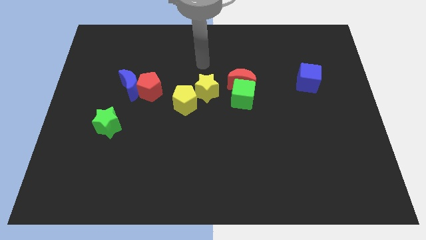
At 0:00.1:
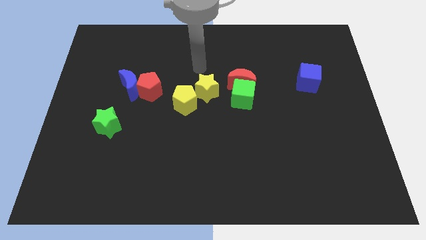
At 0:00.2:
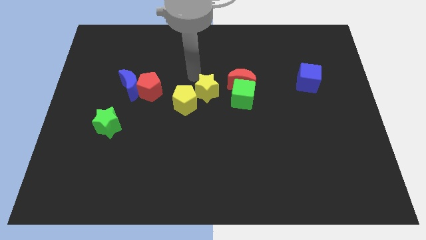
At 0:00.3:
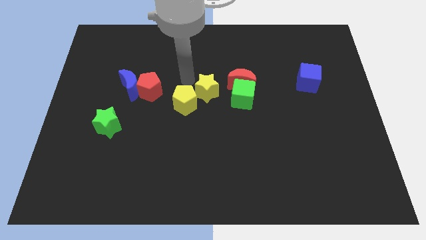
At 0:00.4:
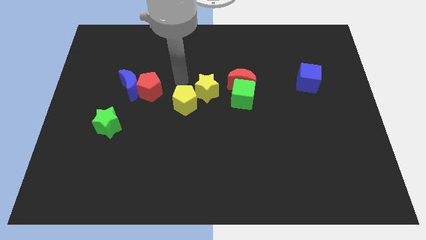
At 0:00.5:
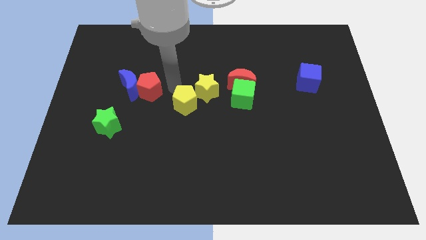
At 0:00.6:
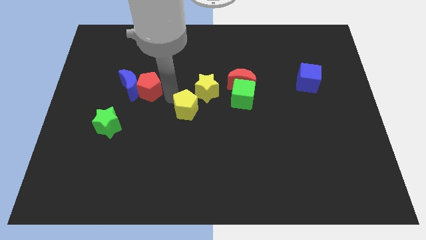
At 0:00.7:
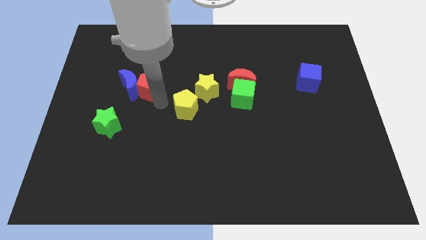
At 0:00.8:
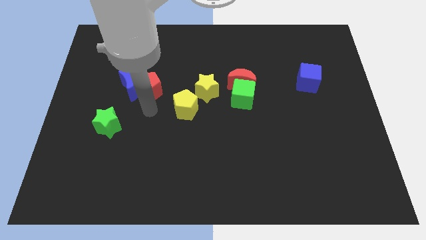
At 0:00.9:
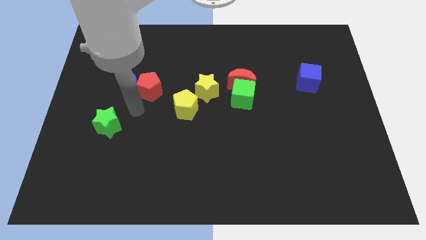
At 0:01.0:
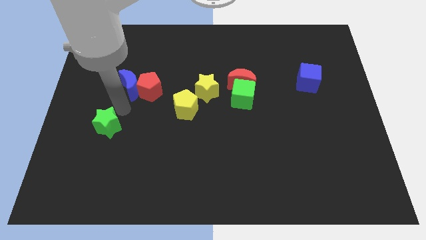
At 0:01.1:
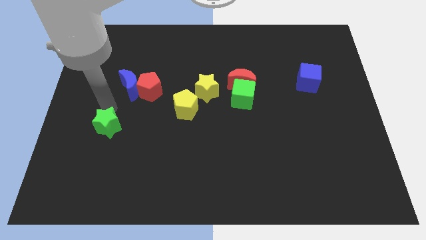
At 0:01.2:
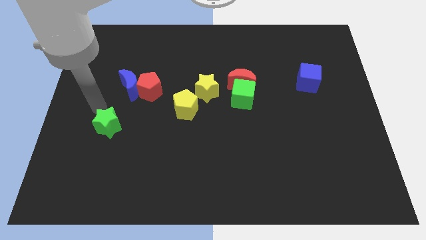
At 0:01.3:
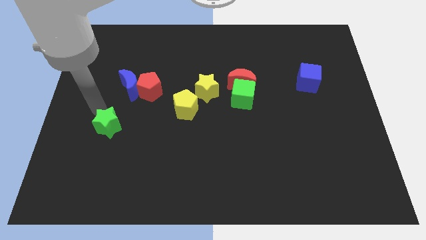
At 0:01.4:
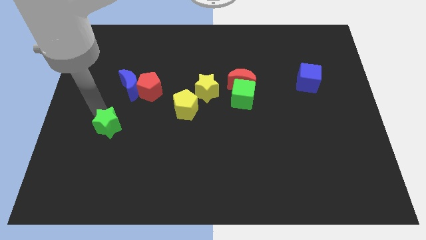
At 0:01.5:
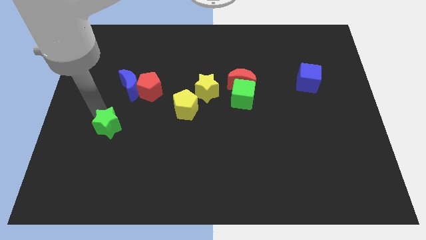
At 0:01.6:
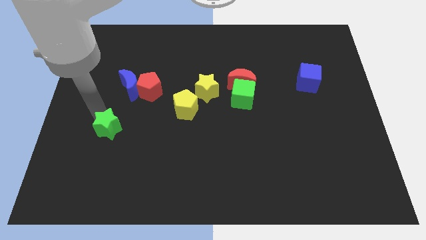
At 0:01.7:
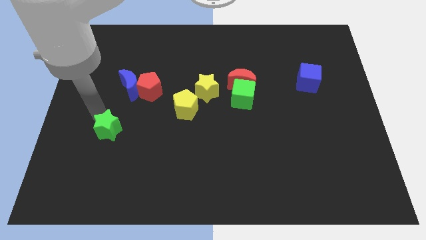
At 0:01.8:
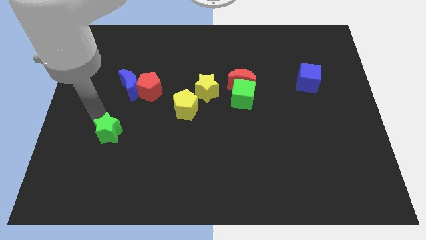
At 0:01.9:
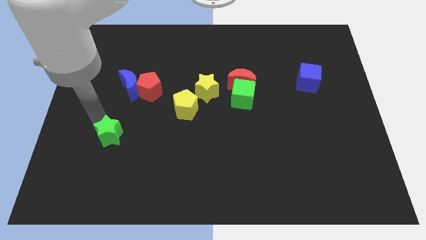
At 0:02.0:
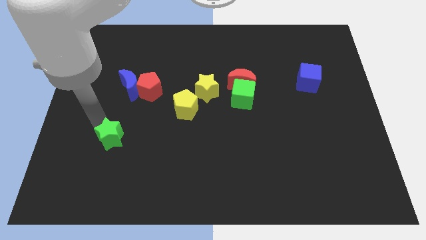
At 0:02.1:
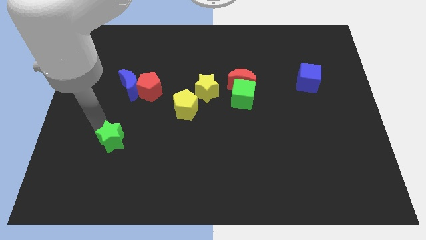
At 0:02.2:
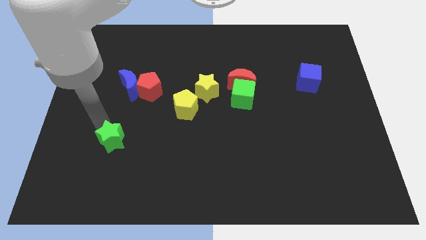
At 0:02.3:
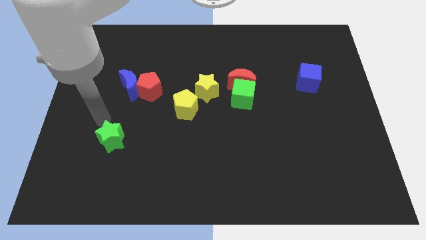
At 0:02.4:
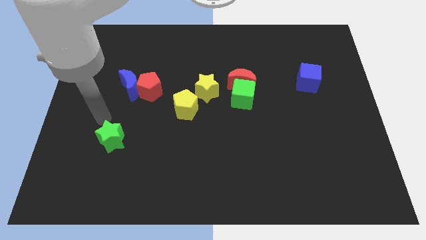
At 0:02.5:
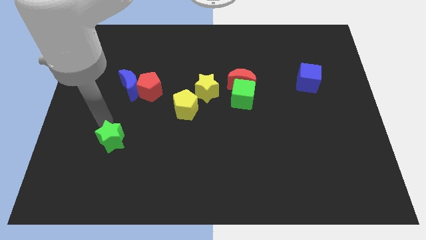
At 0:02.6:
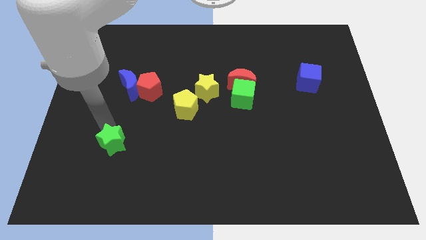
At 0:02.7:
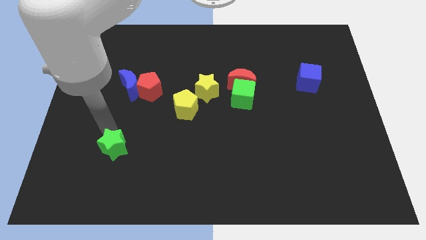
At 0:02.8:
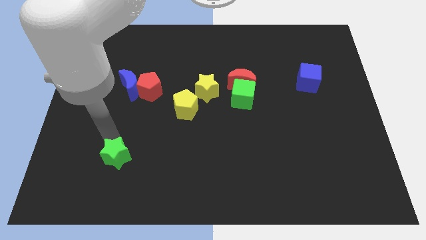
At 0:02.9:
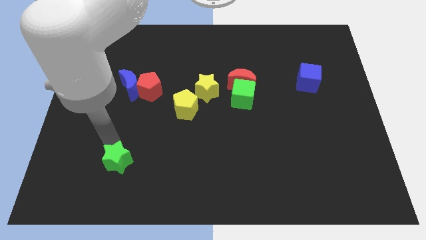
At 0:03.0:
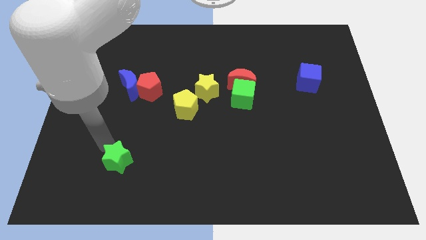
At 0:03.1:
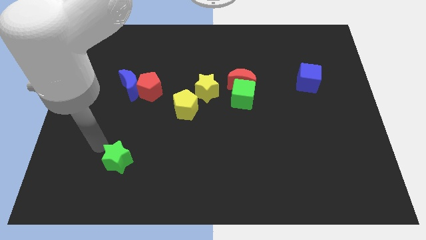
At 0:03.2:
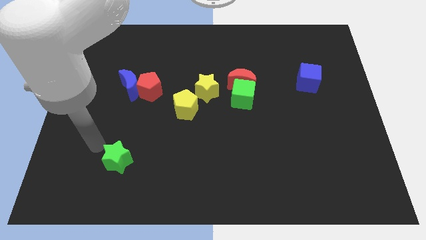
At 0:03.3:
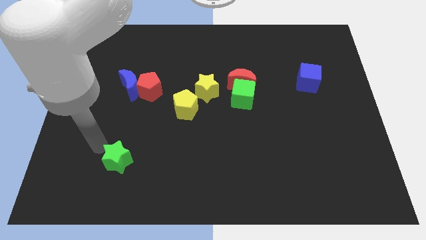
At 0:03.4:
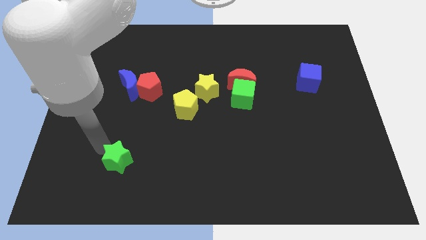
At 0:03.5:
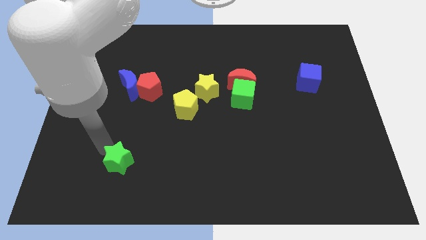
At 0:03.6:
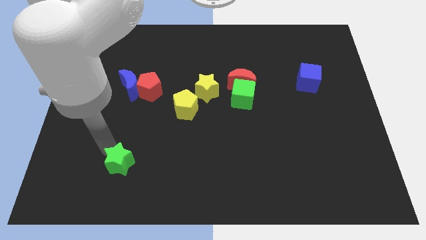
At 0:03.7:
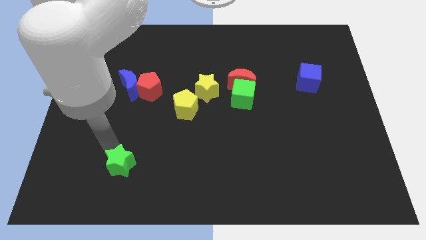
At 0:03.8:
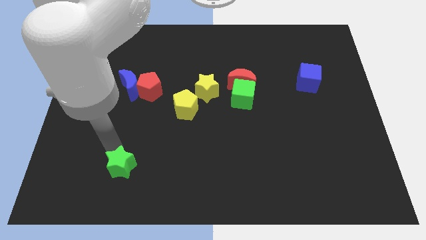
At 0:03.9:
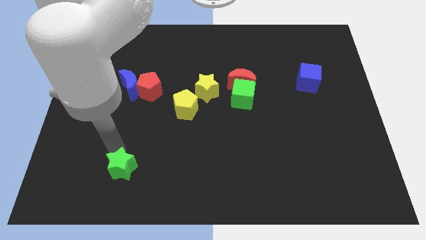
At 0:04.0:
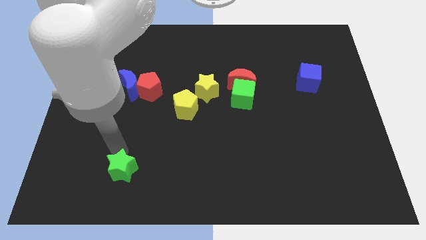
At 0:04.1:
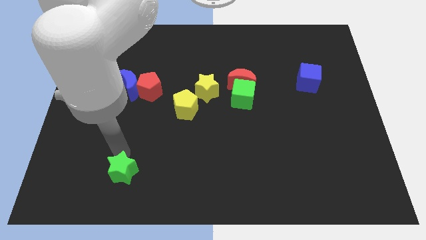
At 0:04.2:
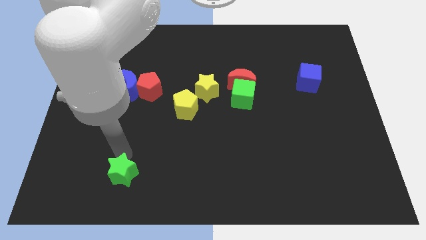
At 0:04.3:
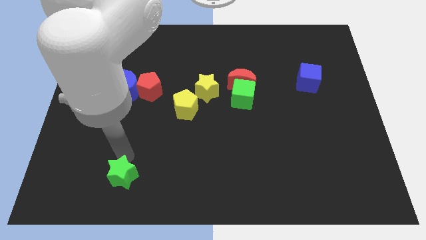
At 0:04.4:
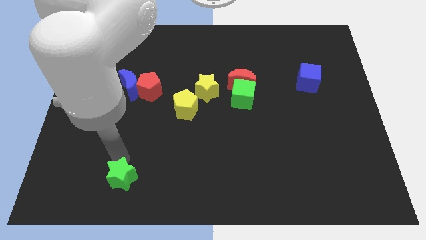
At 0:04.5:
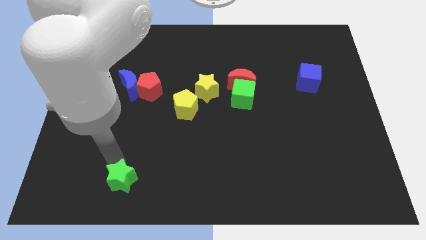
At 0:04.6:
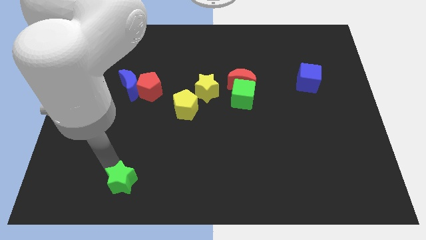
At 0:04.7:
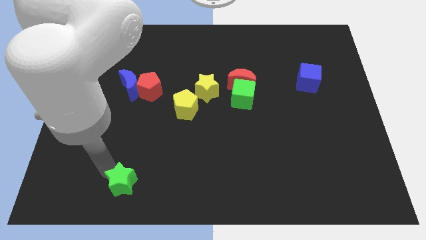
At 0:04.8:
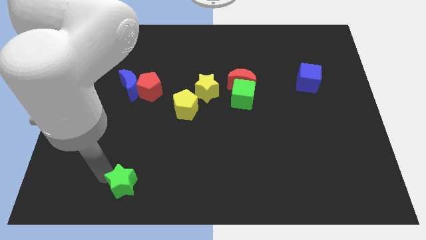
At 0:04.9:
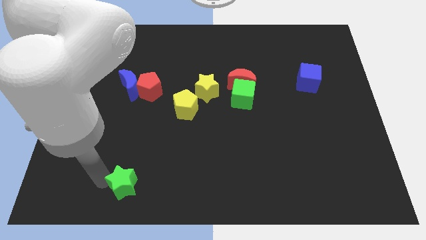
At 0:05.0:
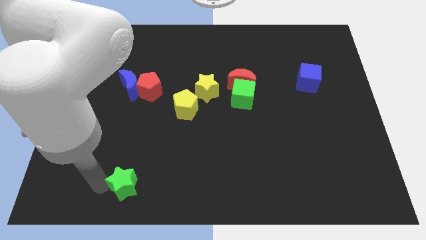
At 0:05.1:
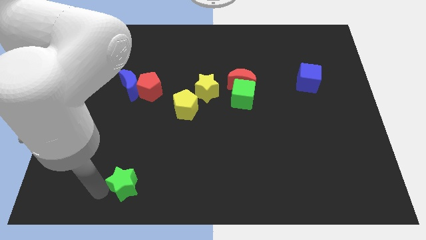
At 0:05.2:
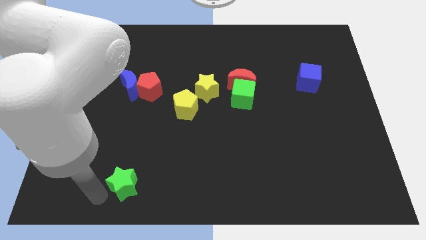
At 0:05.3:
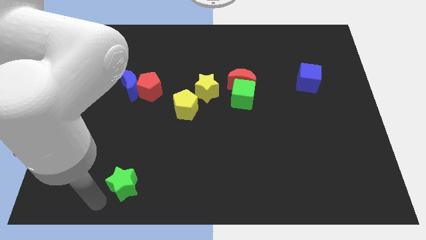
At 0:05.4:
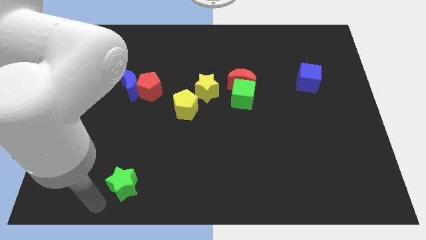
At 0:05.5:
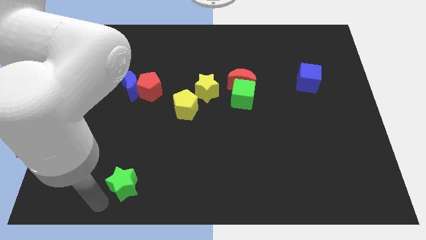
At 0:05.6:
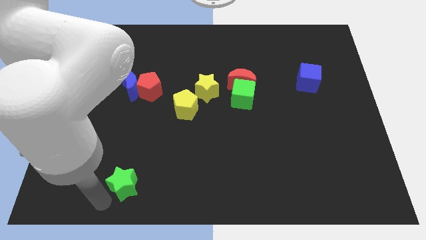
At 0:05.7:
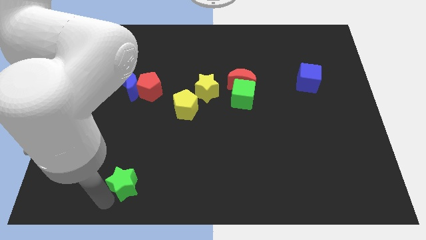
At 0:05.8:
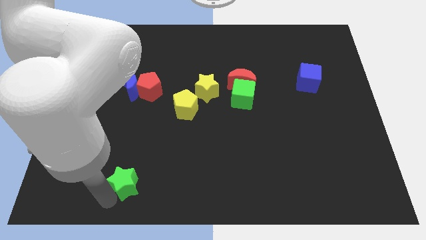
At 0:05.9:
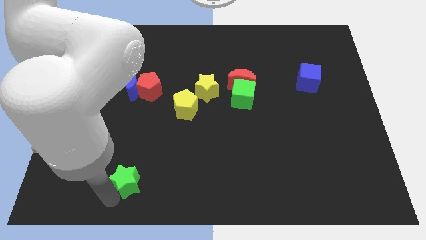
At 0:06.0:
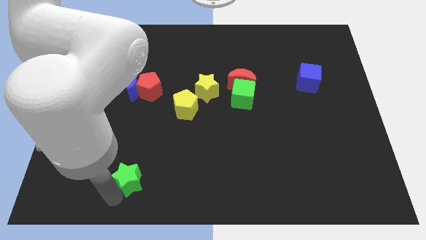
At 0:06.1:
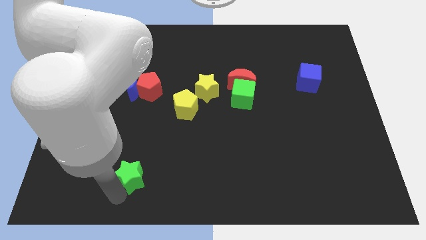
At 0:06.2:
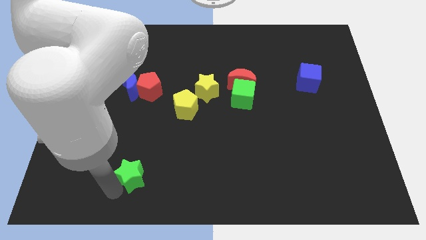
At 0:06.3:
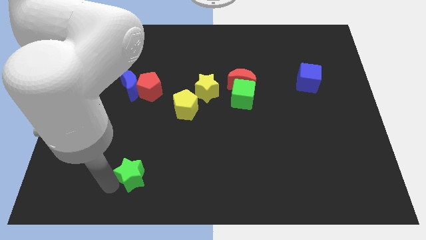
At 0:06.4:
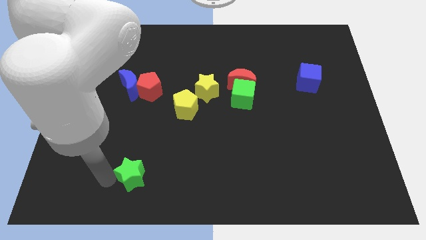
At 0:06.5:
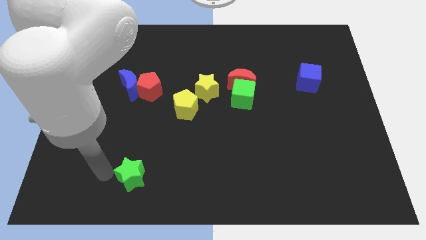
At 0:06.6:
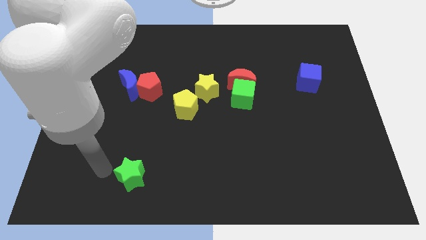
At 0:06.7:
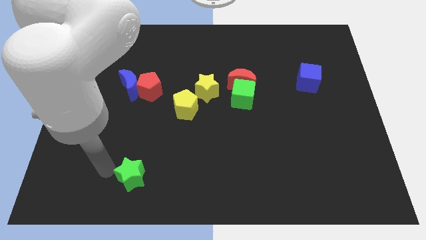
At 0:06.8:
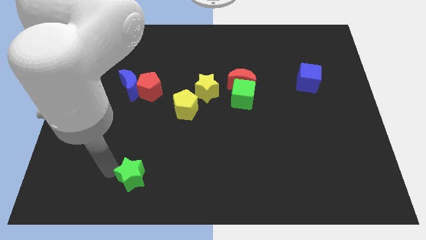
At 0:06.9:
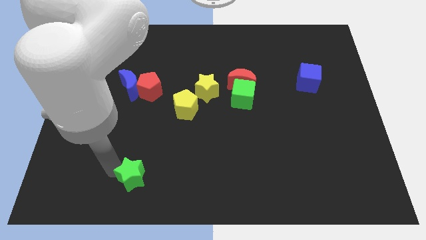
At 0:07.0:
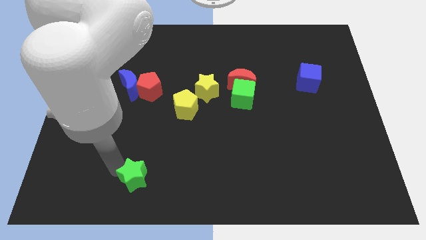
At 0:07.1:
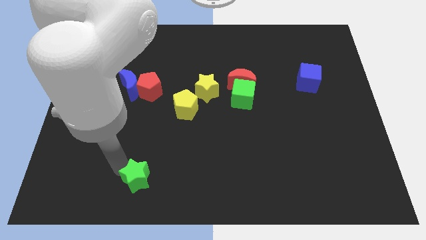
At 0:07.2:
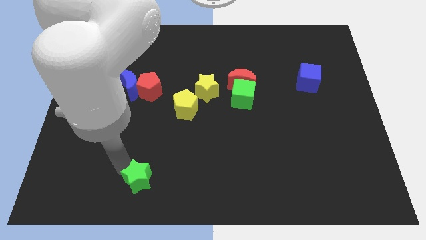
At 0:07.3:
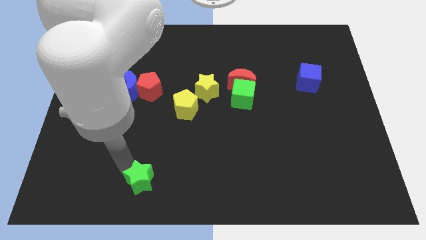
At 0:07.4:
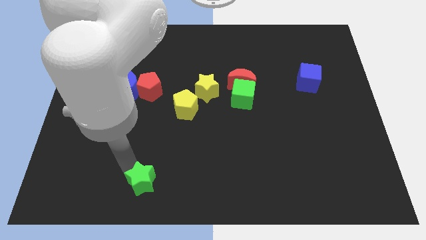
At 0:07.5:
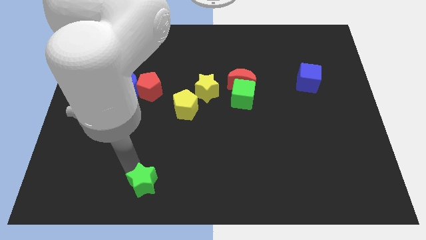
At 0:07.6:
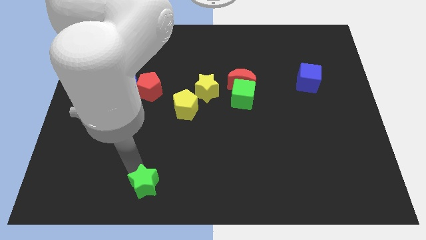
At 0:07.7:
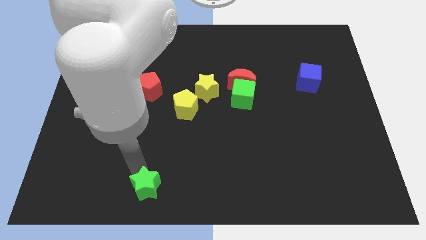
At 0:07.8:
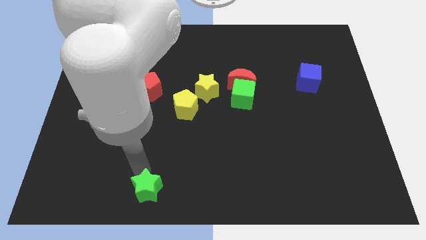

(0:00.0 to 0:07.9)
move the green star to the bottom
